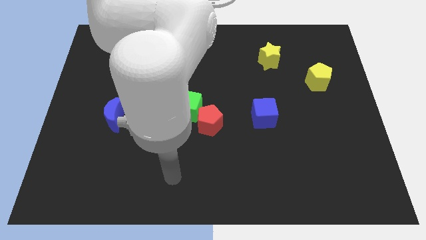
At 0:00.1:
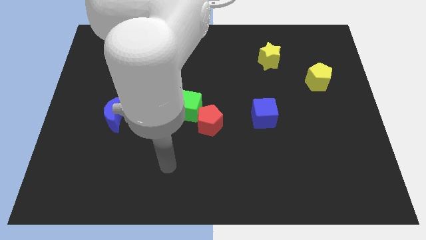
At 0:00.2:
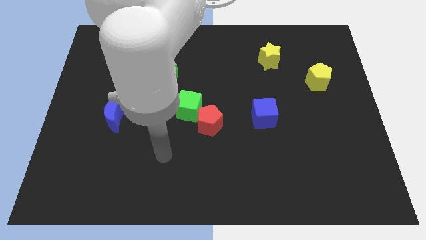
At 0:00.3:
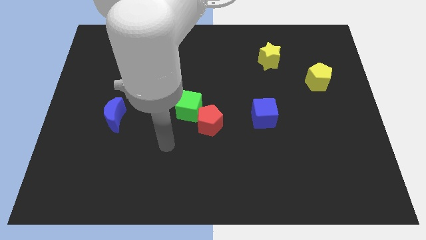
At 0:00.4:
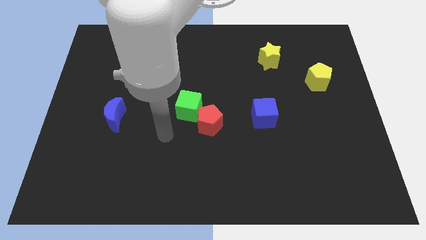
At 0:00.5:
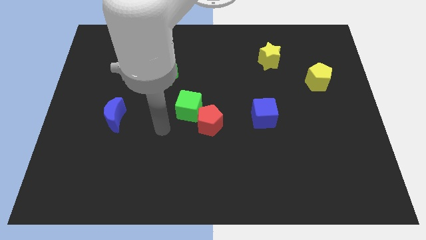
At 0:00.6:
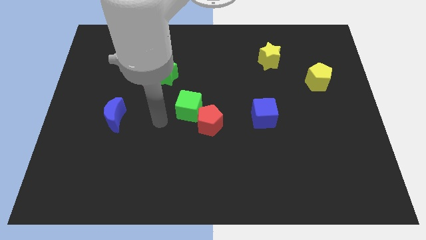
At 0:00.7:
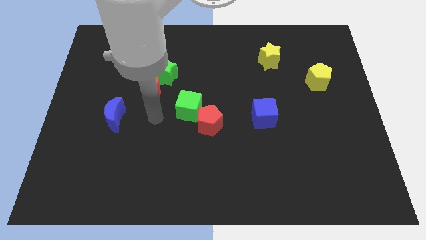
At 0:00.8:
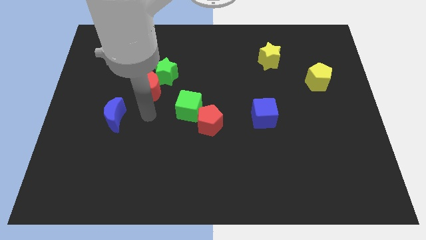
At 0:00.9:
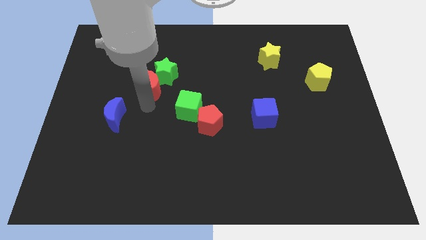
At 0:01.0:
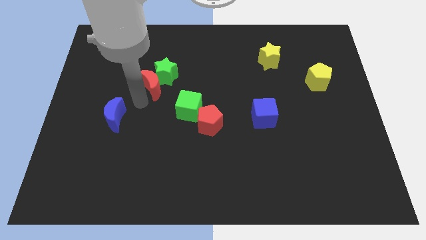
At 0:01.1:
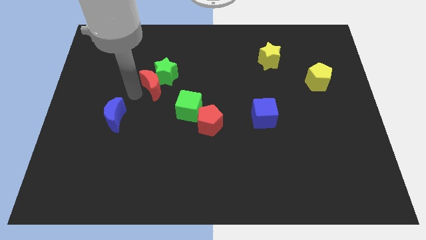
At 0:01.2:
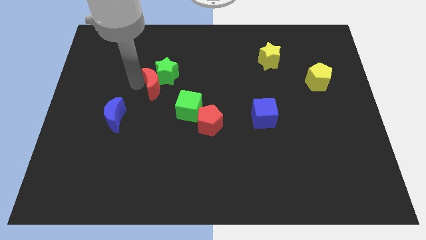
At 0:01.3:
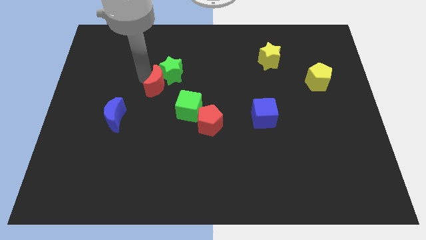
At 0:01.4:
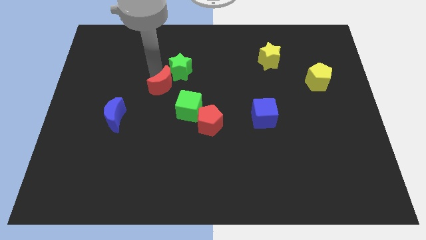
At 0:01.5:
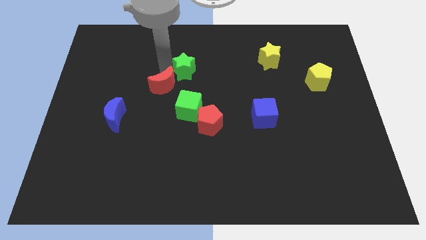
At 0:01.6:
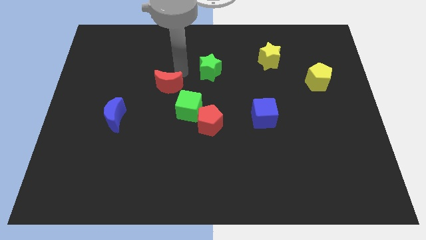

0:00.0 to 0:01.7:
separate the red moon from the green star

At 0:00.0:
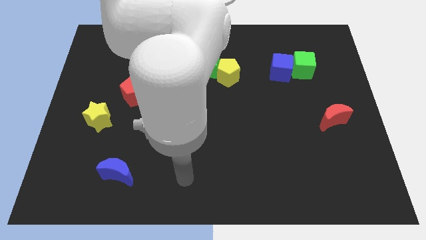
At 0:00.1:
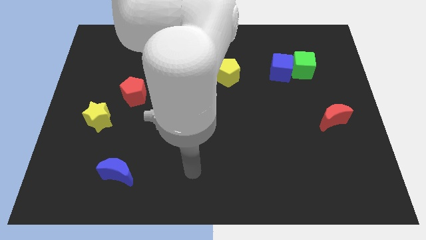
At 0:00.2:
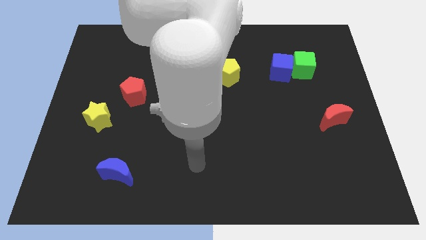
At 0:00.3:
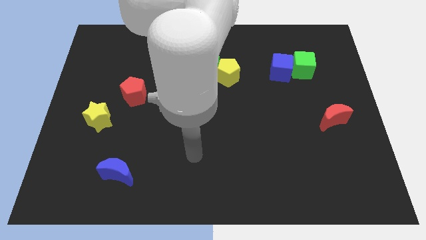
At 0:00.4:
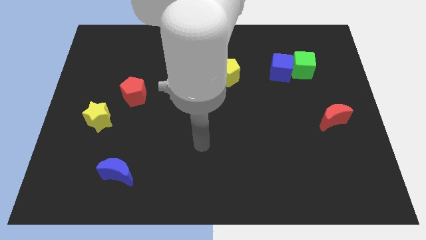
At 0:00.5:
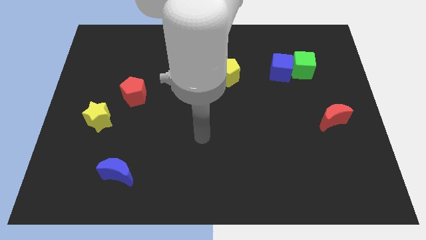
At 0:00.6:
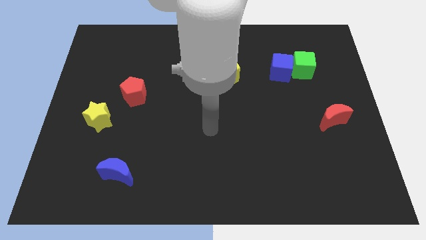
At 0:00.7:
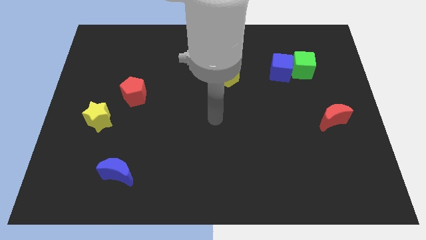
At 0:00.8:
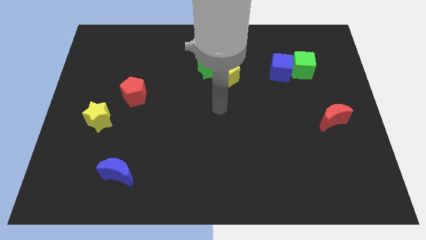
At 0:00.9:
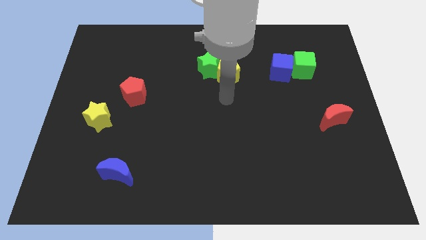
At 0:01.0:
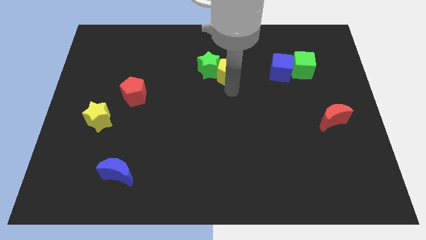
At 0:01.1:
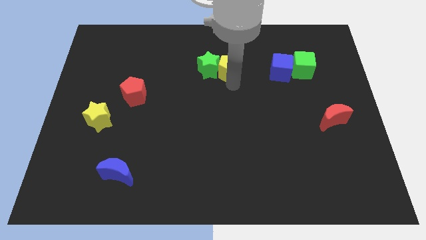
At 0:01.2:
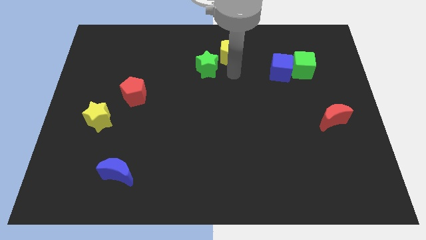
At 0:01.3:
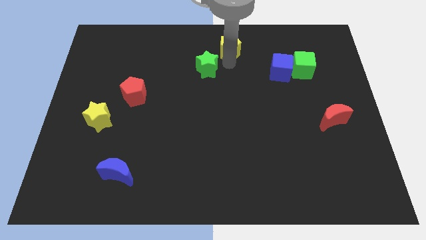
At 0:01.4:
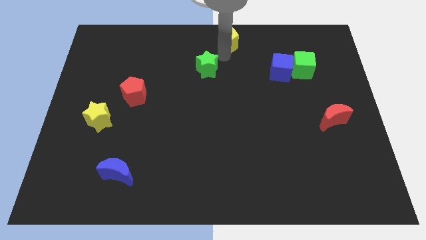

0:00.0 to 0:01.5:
pull the green star apart from the yellow pentagon

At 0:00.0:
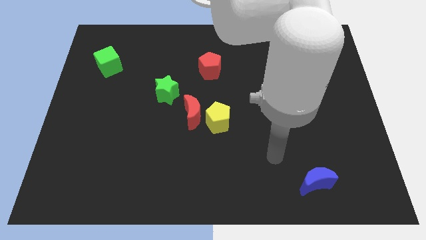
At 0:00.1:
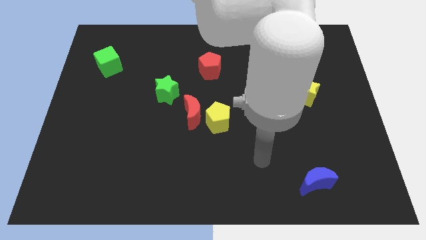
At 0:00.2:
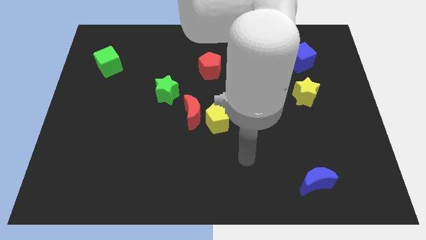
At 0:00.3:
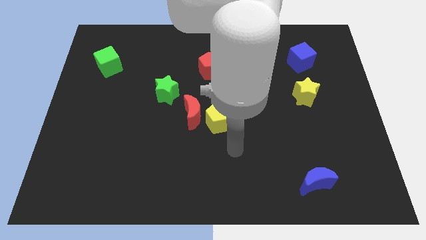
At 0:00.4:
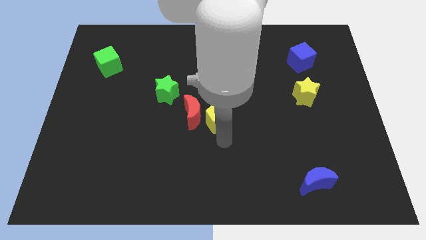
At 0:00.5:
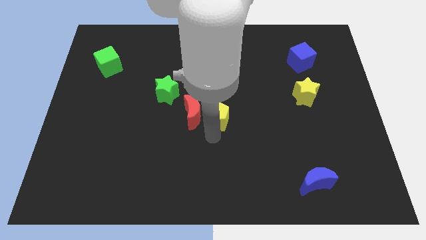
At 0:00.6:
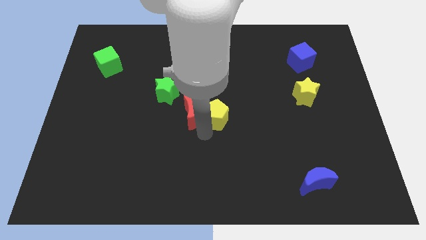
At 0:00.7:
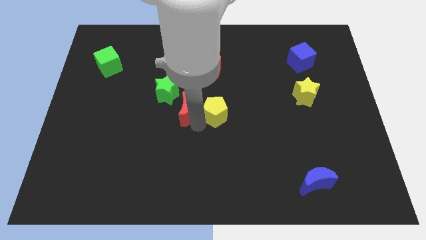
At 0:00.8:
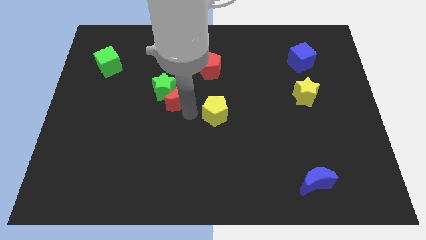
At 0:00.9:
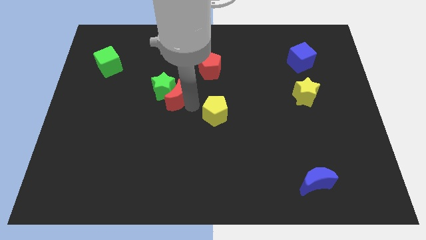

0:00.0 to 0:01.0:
separate the yellow pentagon from the red moon

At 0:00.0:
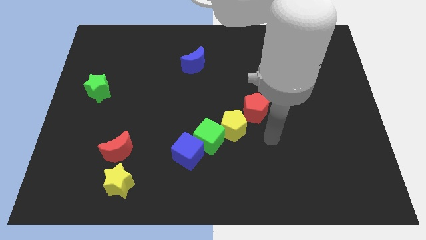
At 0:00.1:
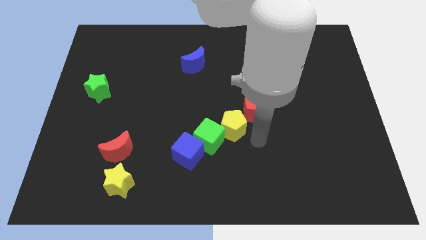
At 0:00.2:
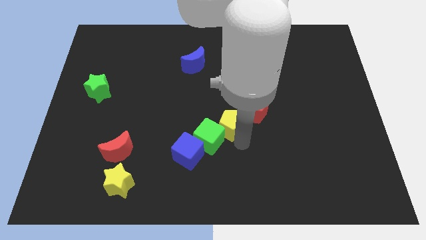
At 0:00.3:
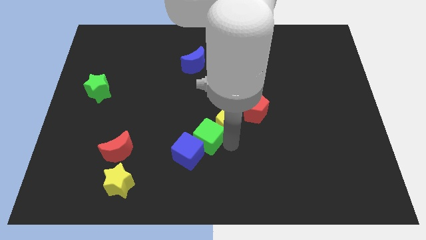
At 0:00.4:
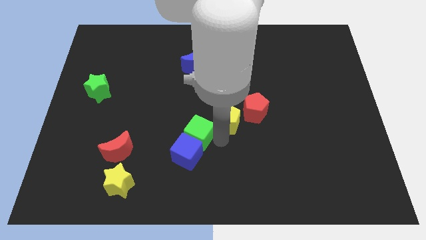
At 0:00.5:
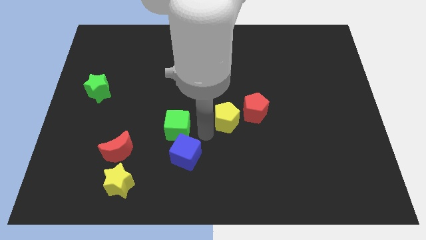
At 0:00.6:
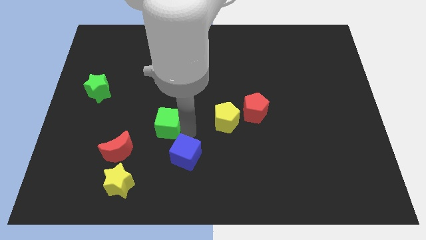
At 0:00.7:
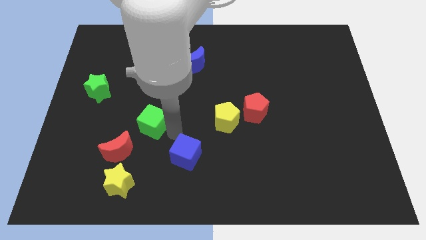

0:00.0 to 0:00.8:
separate the blue cube from the green cube

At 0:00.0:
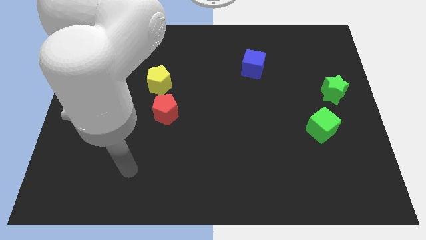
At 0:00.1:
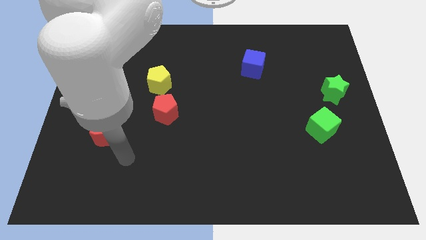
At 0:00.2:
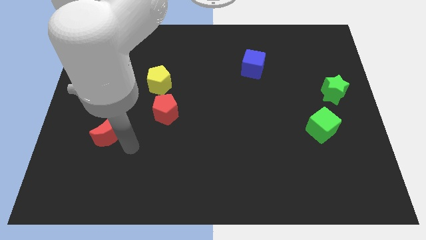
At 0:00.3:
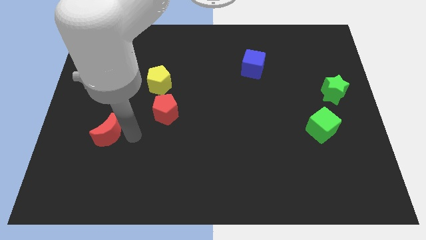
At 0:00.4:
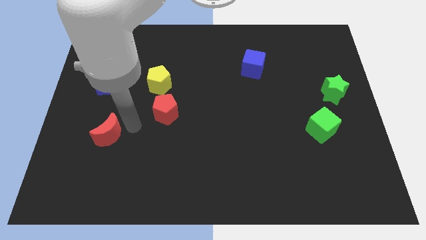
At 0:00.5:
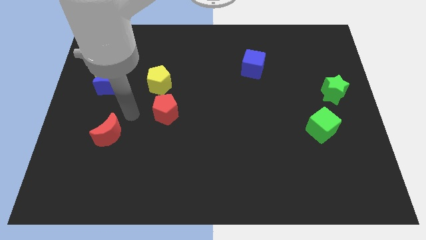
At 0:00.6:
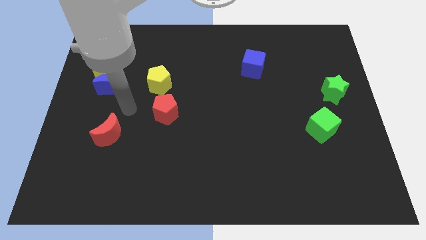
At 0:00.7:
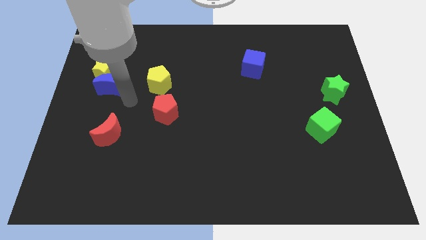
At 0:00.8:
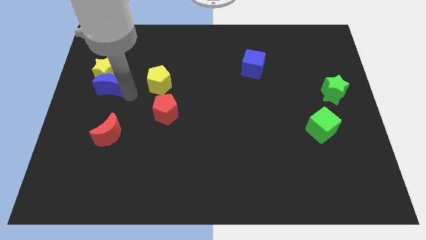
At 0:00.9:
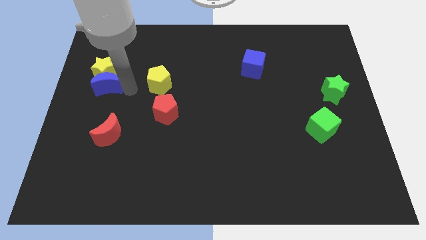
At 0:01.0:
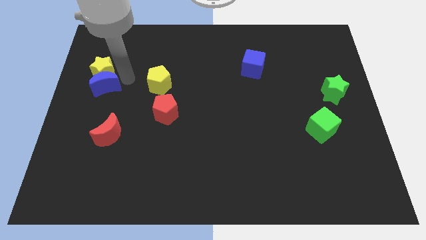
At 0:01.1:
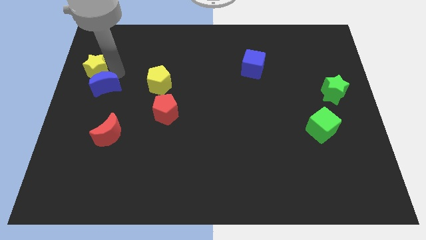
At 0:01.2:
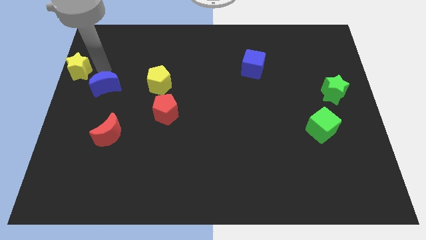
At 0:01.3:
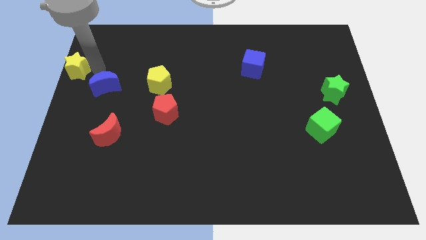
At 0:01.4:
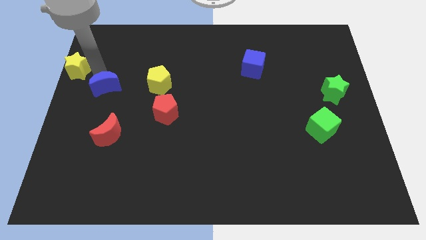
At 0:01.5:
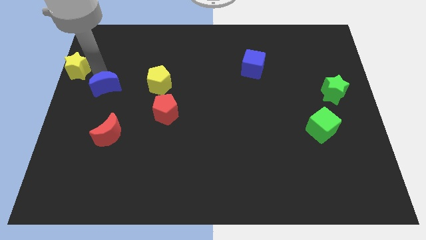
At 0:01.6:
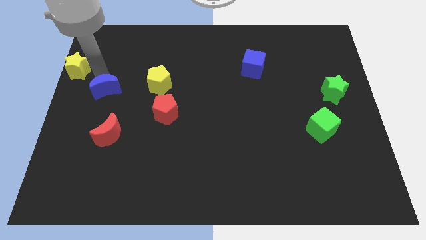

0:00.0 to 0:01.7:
move the blue moon away from the yellow star

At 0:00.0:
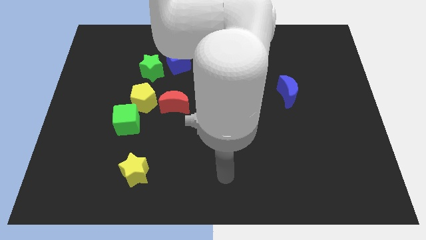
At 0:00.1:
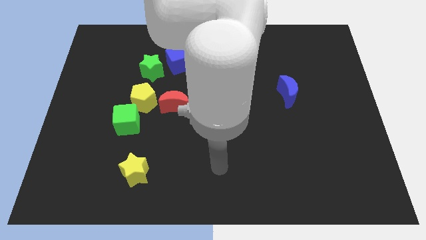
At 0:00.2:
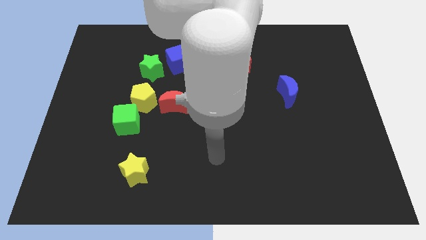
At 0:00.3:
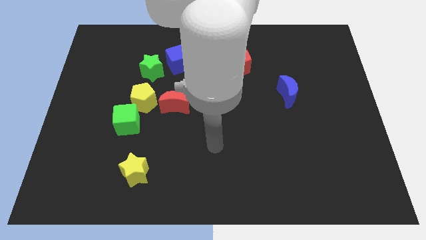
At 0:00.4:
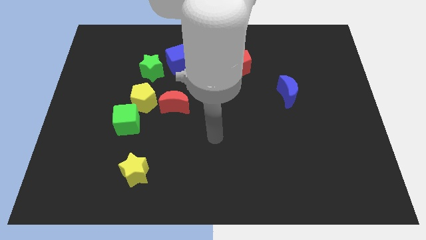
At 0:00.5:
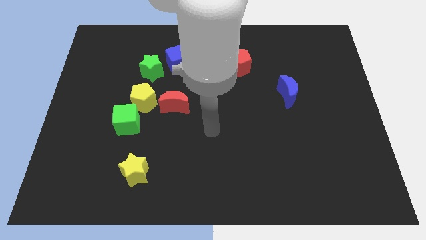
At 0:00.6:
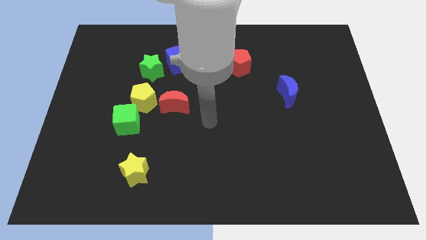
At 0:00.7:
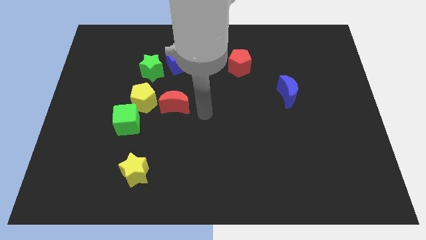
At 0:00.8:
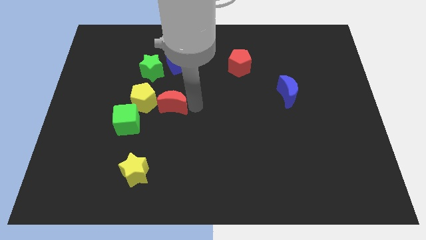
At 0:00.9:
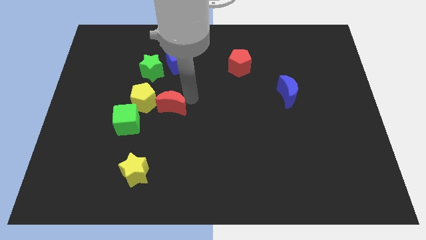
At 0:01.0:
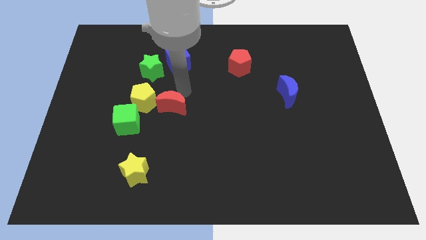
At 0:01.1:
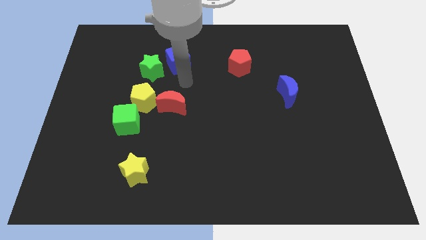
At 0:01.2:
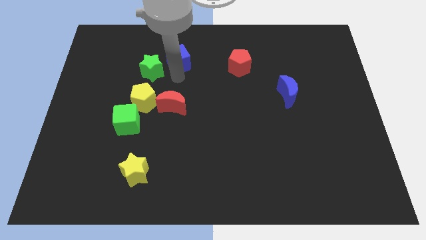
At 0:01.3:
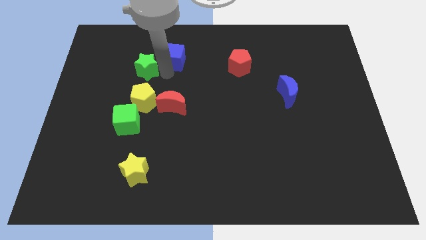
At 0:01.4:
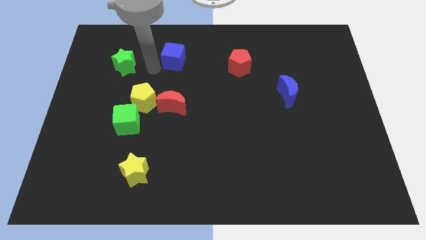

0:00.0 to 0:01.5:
move the blue cube away from the green star

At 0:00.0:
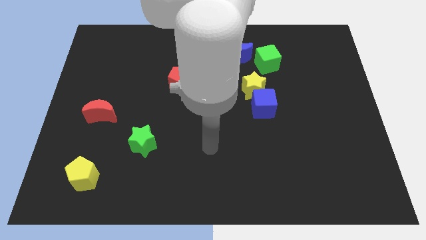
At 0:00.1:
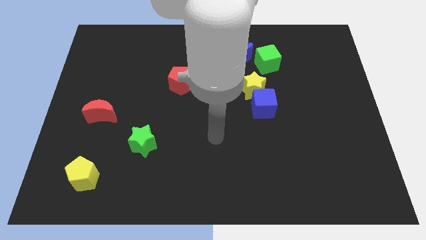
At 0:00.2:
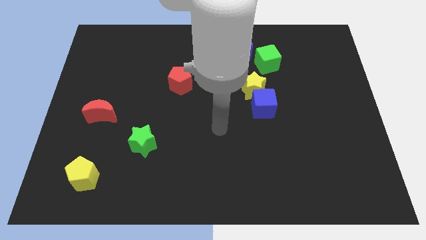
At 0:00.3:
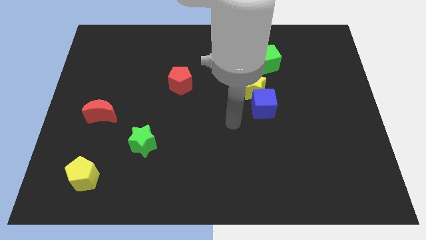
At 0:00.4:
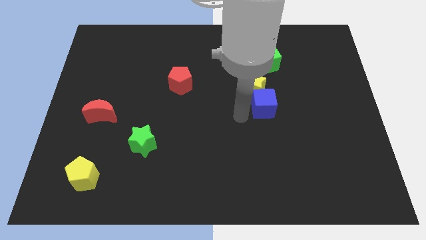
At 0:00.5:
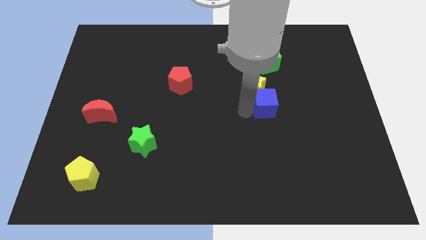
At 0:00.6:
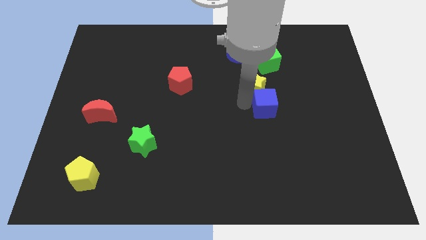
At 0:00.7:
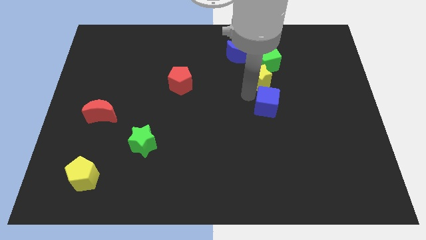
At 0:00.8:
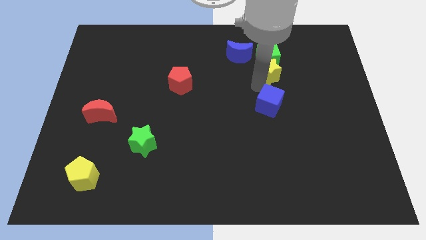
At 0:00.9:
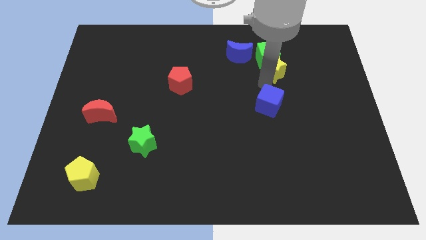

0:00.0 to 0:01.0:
pull the blue cube apart from the yellow star
